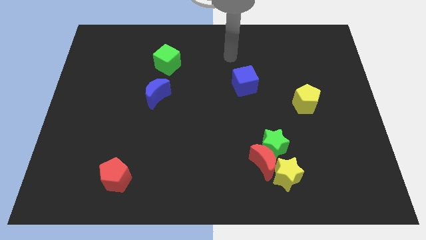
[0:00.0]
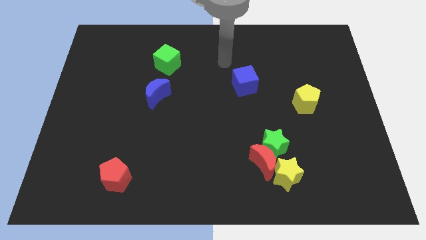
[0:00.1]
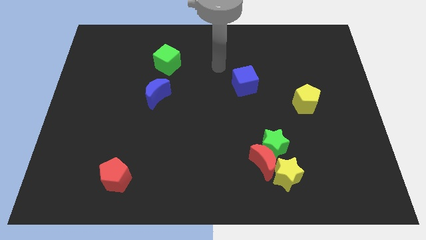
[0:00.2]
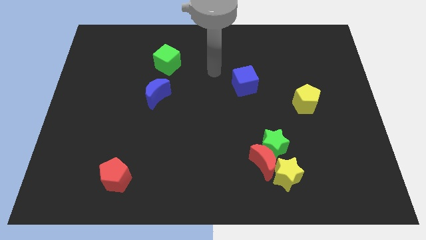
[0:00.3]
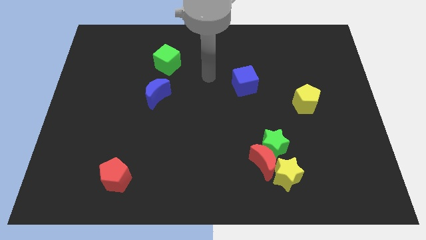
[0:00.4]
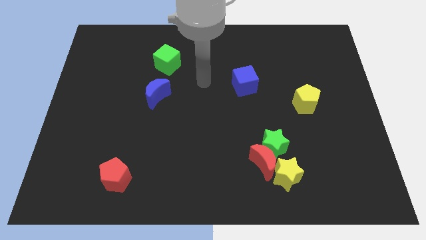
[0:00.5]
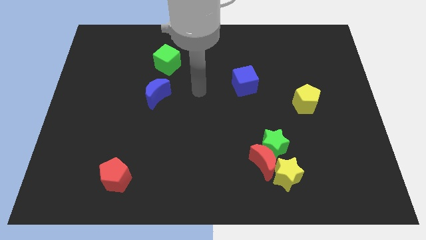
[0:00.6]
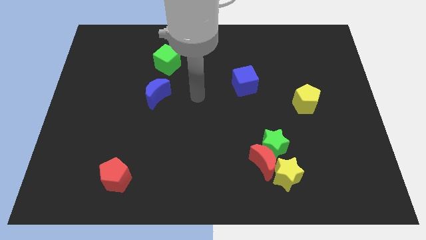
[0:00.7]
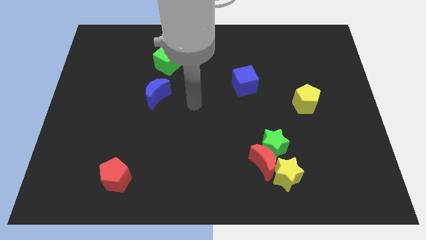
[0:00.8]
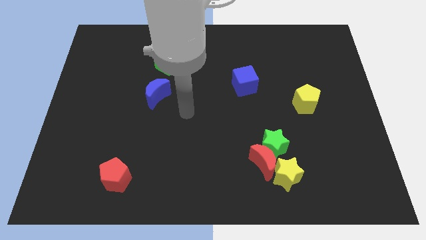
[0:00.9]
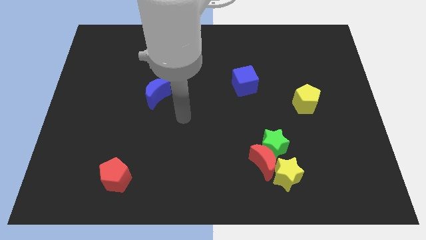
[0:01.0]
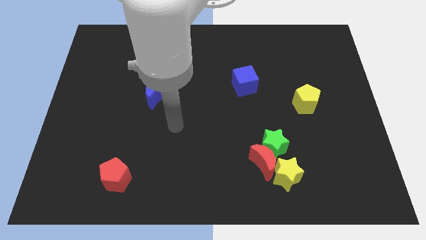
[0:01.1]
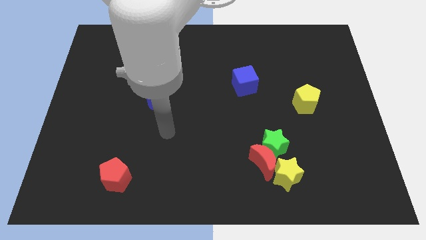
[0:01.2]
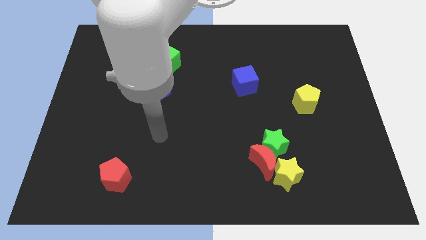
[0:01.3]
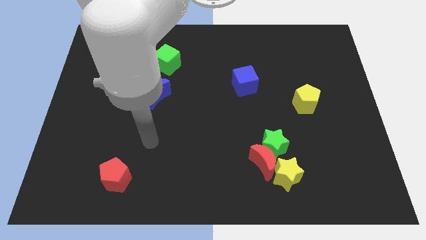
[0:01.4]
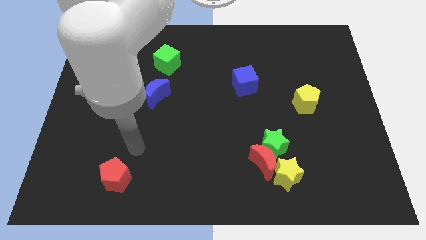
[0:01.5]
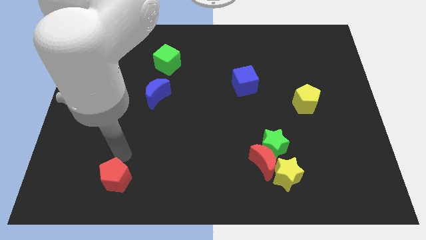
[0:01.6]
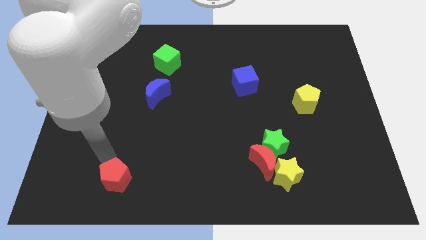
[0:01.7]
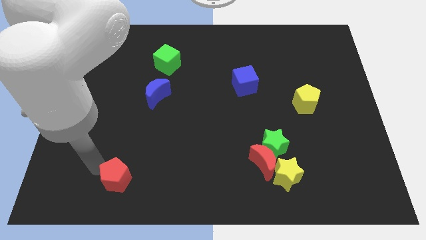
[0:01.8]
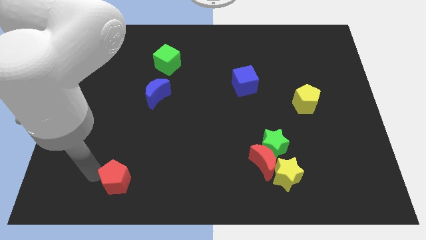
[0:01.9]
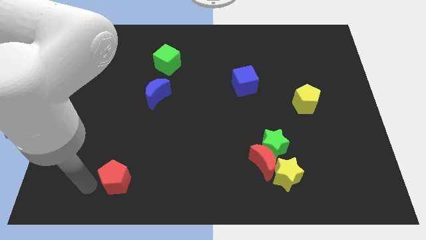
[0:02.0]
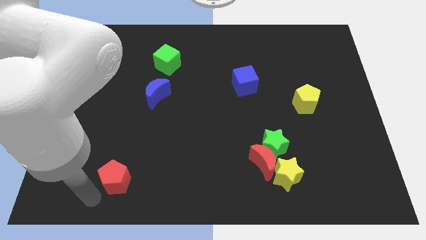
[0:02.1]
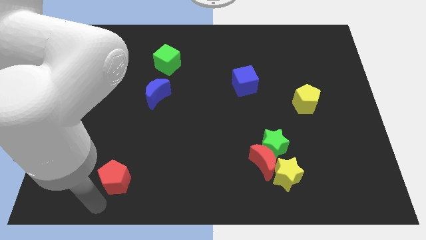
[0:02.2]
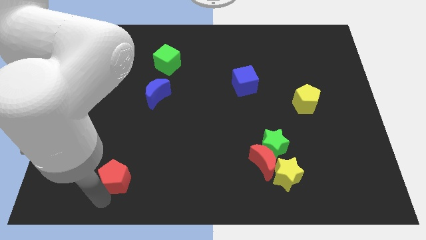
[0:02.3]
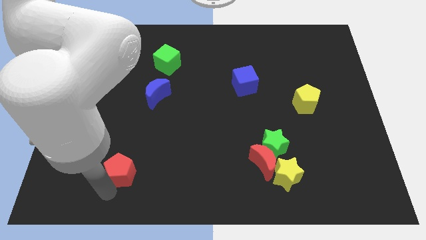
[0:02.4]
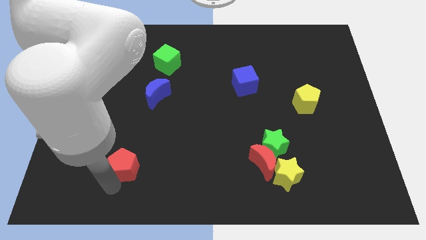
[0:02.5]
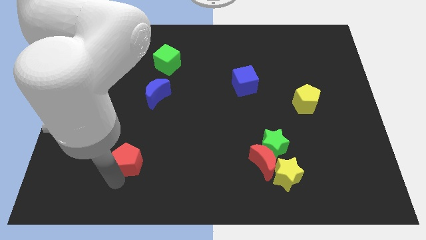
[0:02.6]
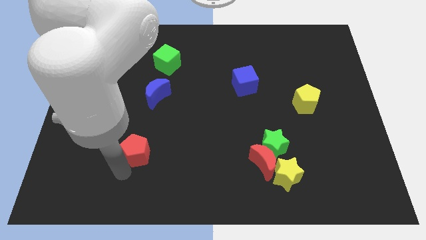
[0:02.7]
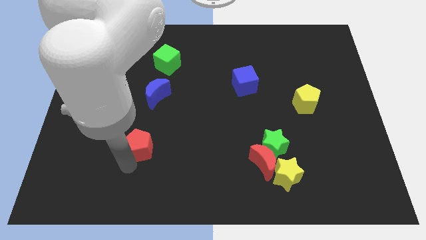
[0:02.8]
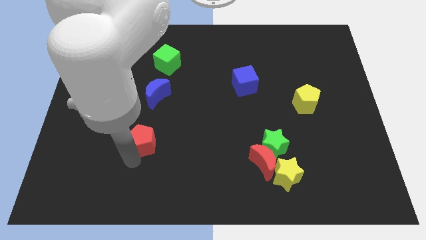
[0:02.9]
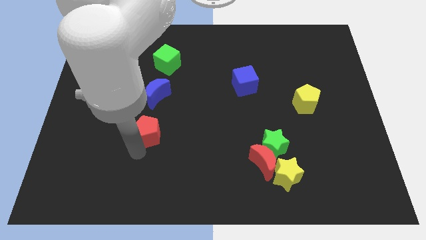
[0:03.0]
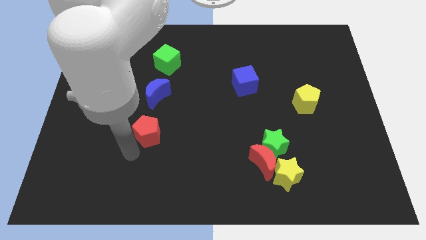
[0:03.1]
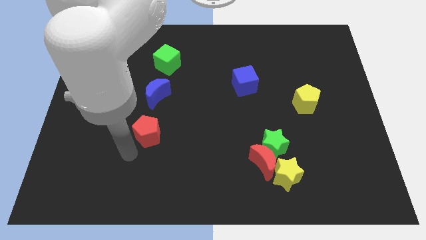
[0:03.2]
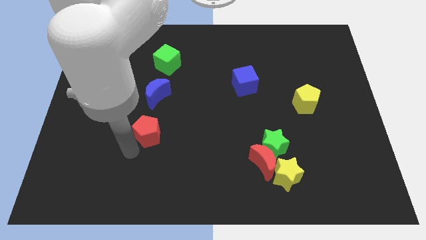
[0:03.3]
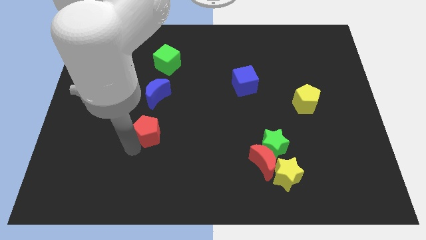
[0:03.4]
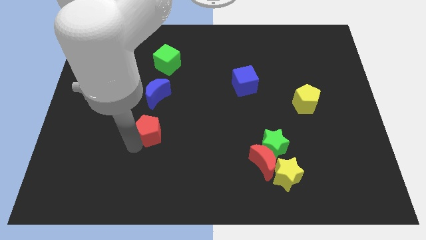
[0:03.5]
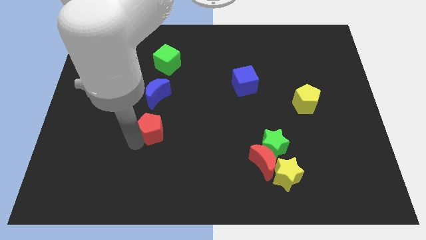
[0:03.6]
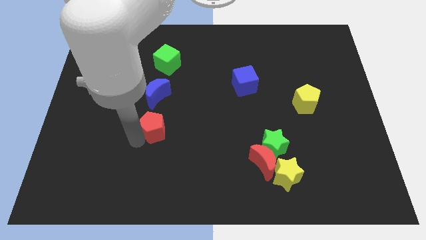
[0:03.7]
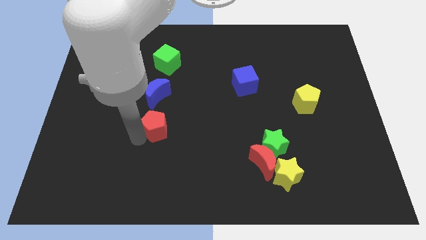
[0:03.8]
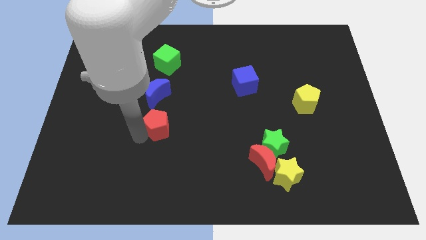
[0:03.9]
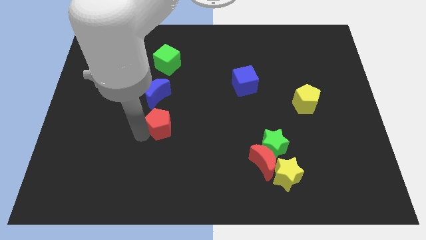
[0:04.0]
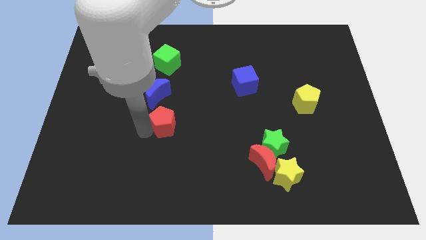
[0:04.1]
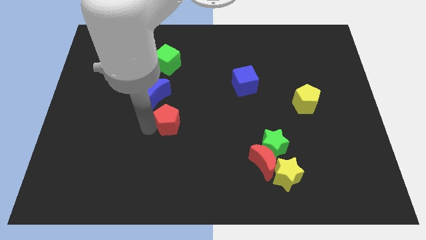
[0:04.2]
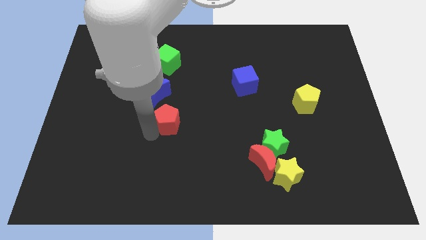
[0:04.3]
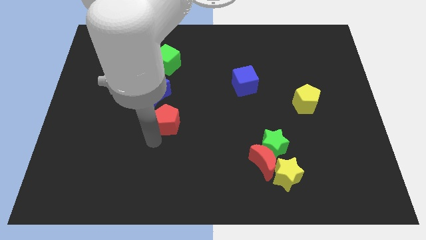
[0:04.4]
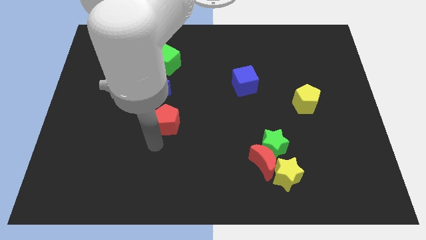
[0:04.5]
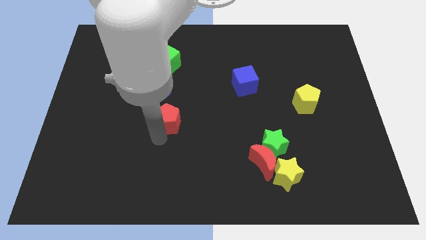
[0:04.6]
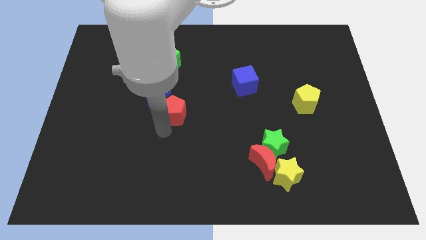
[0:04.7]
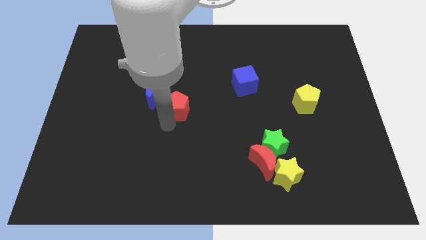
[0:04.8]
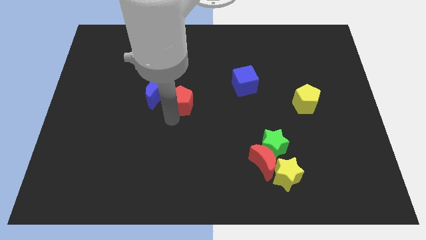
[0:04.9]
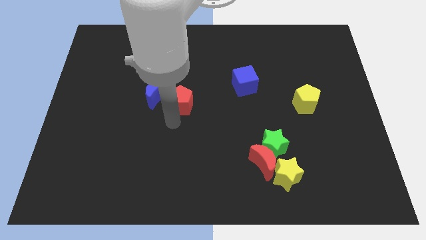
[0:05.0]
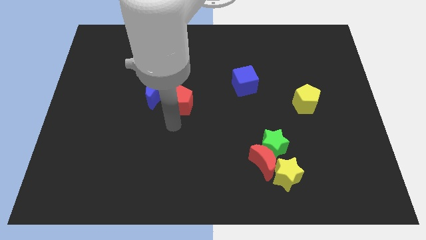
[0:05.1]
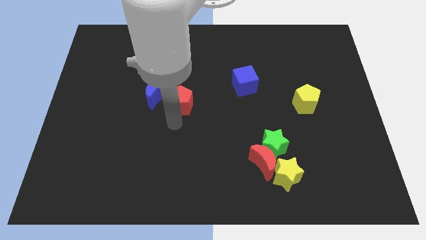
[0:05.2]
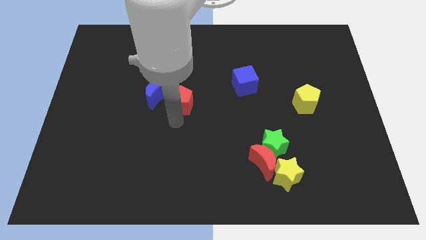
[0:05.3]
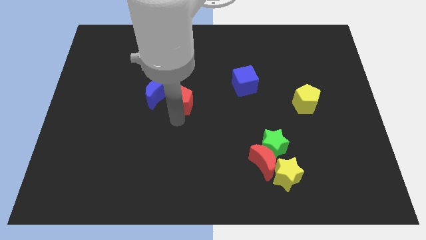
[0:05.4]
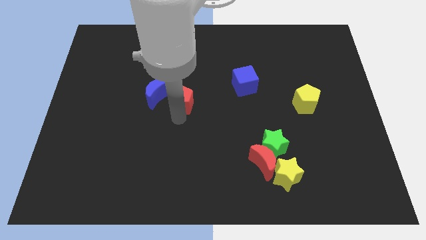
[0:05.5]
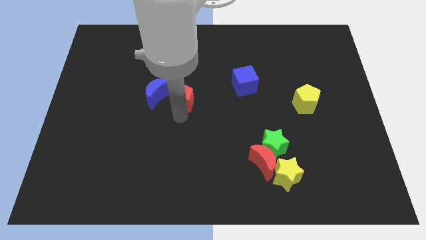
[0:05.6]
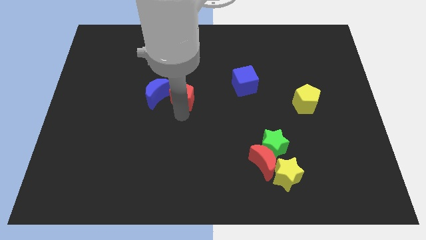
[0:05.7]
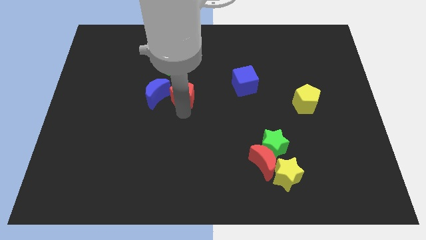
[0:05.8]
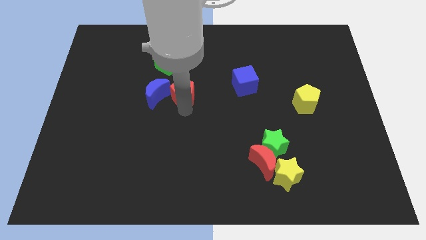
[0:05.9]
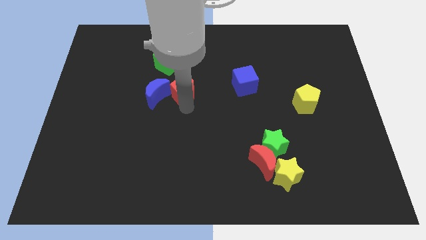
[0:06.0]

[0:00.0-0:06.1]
slide the red pentagon to the bottom right of the green cube
